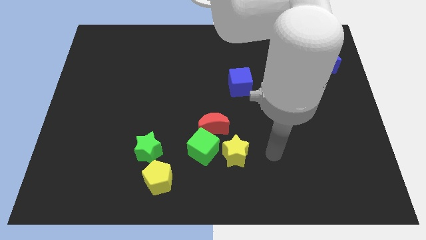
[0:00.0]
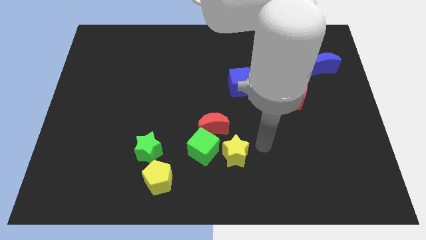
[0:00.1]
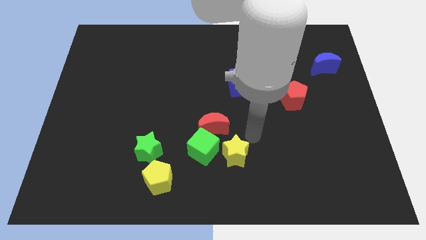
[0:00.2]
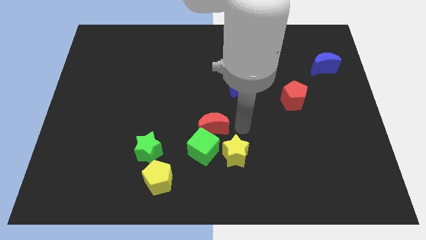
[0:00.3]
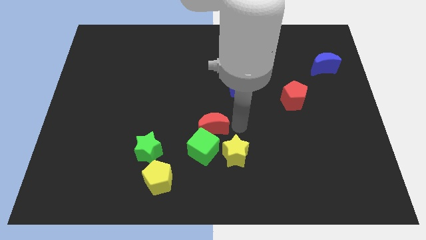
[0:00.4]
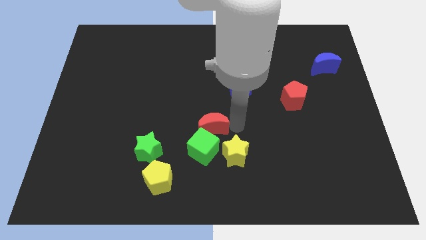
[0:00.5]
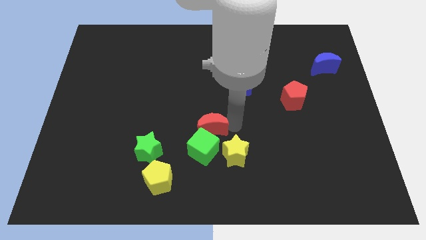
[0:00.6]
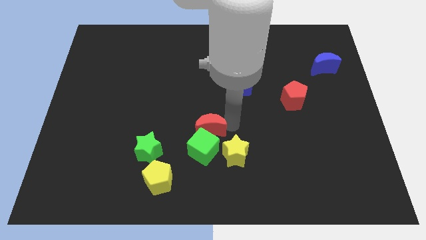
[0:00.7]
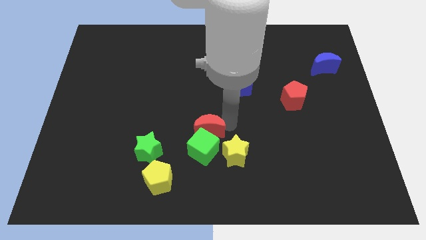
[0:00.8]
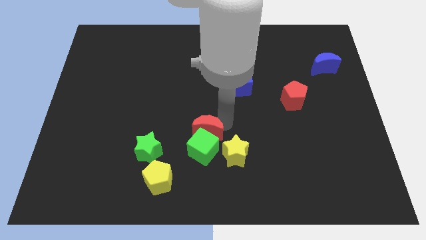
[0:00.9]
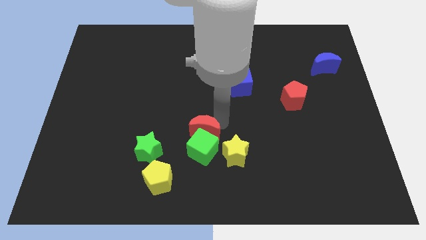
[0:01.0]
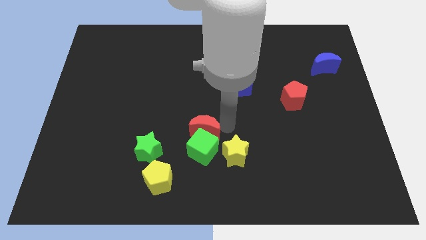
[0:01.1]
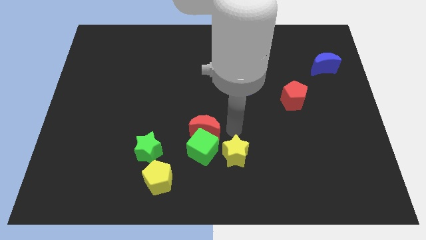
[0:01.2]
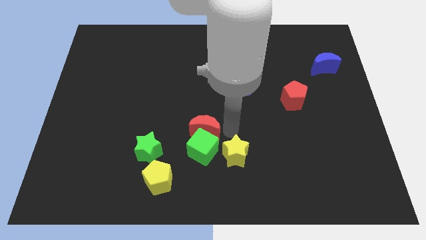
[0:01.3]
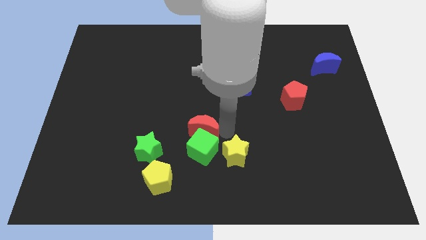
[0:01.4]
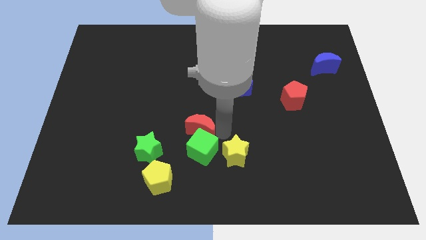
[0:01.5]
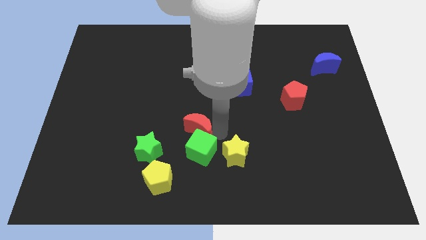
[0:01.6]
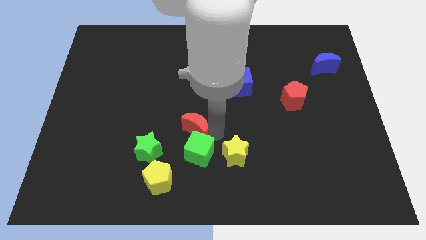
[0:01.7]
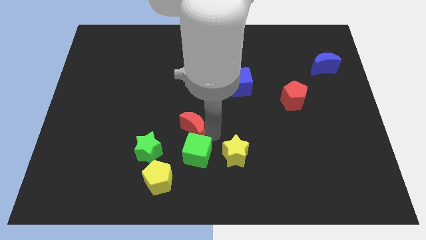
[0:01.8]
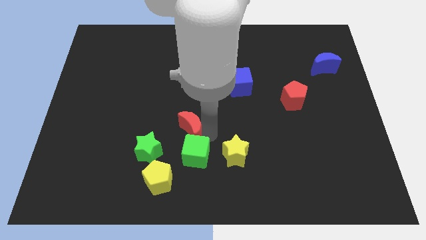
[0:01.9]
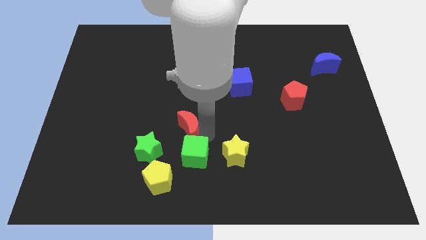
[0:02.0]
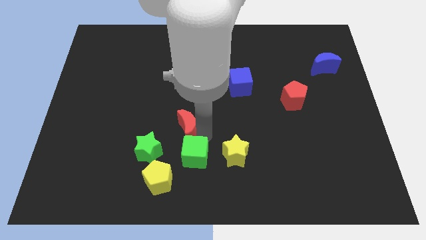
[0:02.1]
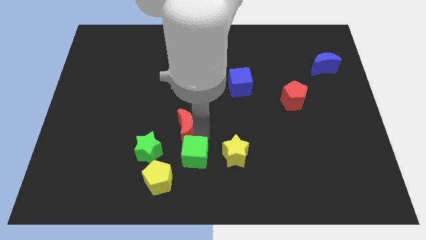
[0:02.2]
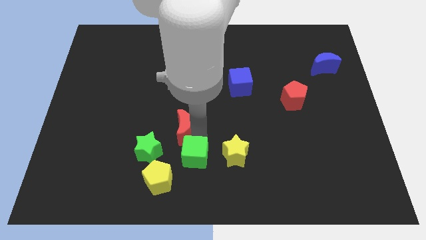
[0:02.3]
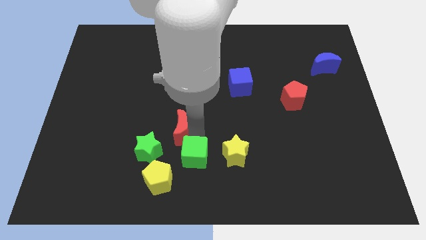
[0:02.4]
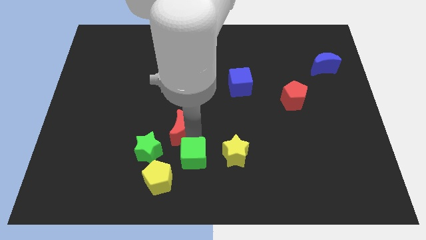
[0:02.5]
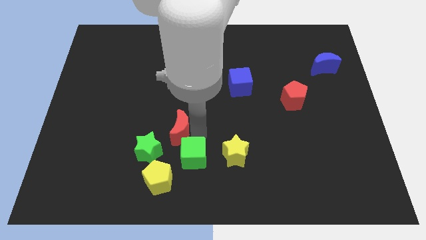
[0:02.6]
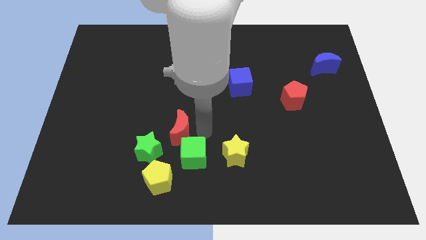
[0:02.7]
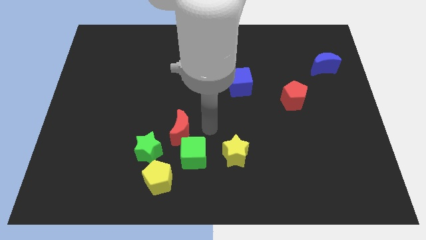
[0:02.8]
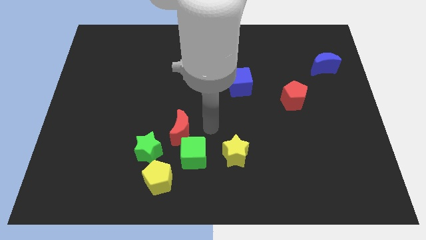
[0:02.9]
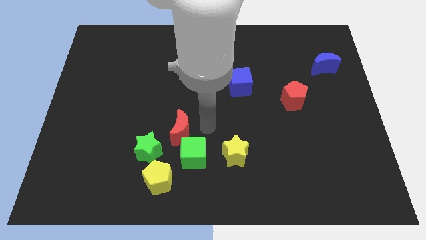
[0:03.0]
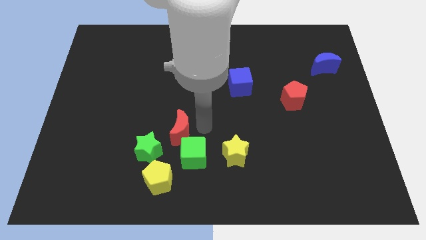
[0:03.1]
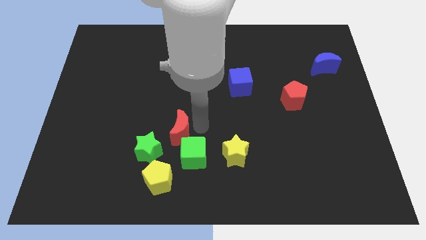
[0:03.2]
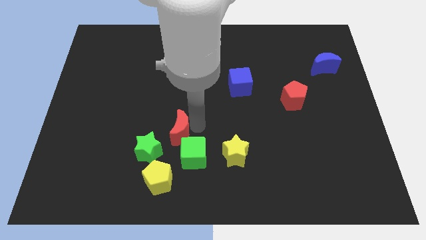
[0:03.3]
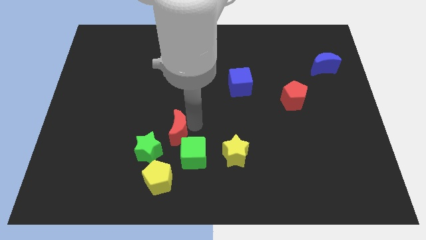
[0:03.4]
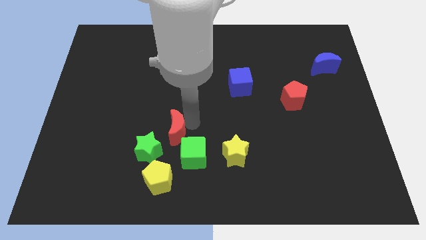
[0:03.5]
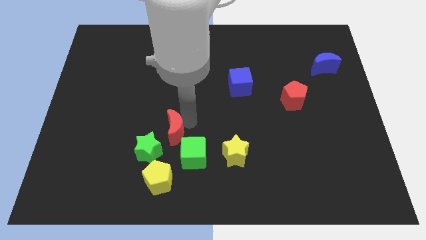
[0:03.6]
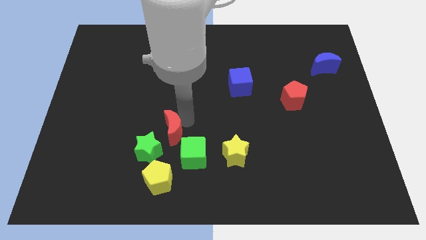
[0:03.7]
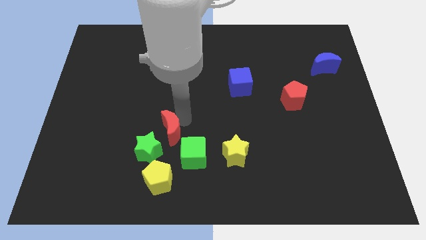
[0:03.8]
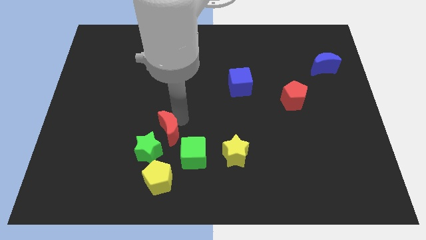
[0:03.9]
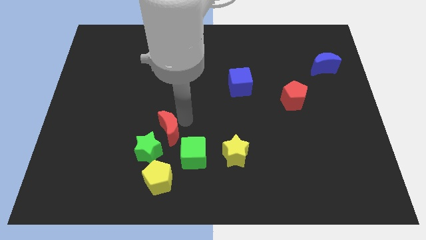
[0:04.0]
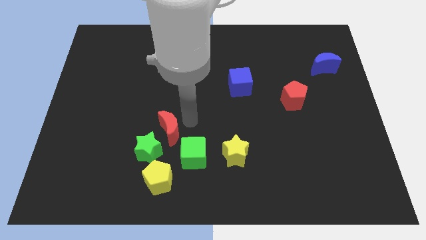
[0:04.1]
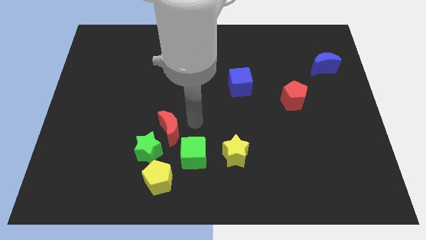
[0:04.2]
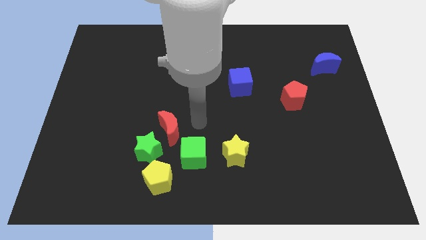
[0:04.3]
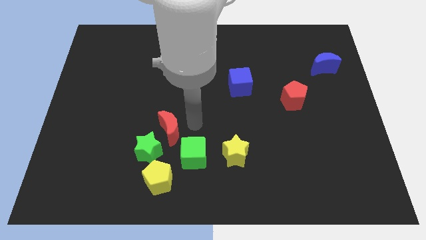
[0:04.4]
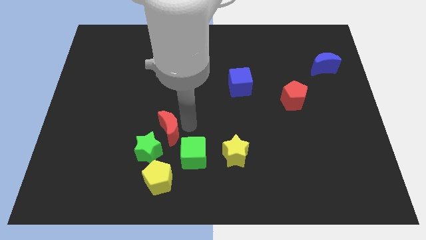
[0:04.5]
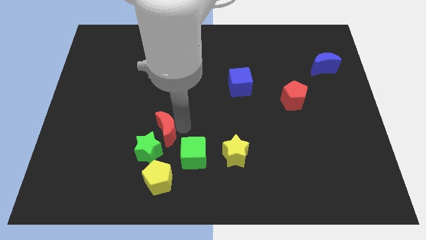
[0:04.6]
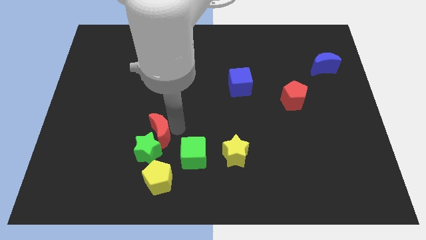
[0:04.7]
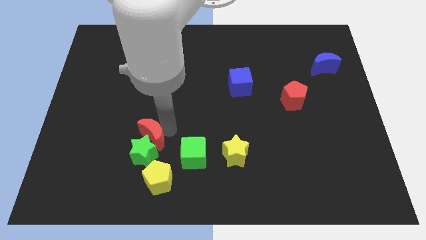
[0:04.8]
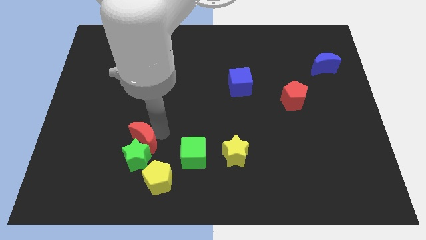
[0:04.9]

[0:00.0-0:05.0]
push the red moon to the top left side of the yellow pentagon

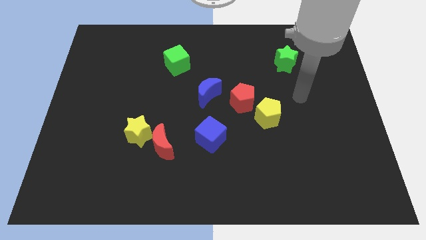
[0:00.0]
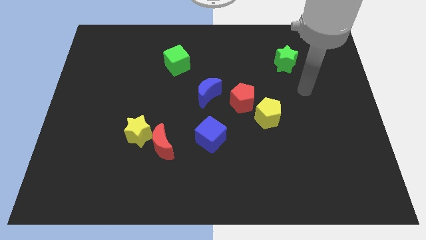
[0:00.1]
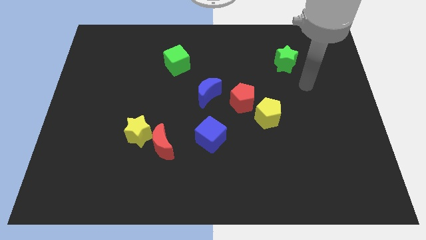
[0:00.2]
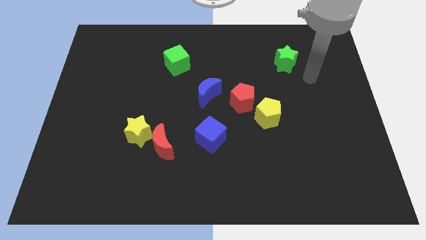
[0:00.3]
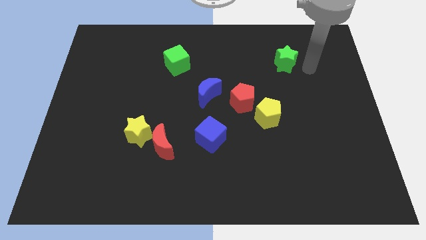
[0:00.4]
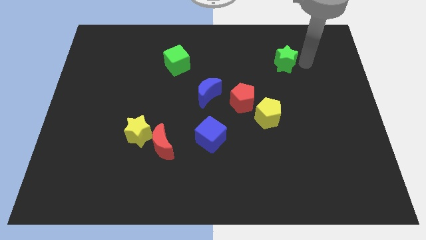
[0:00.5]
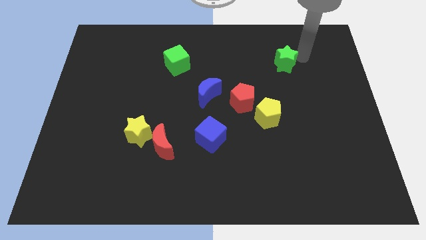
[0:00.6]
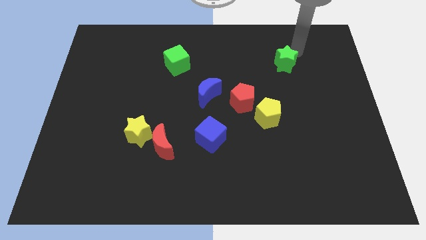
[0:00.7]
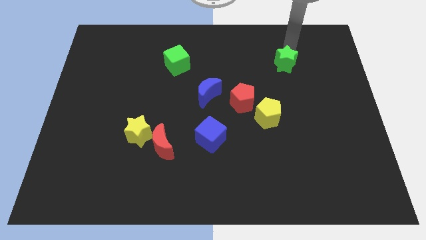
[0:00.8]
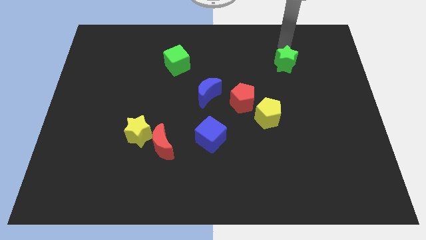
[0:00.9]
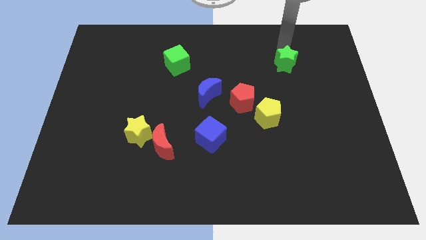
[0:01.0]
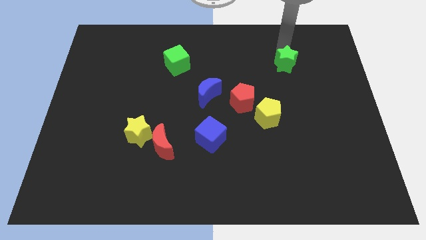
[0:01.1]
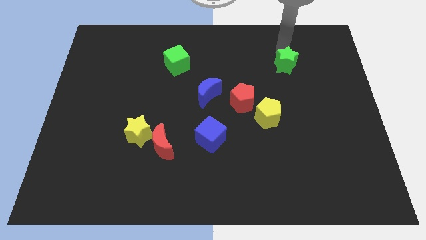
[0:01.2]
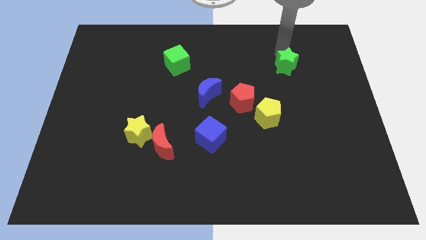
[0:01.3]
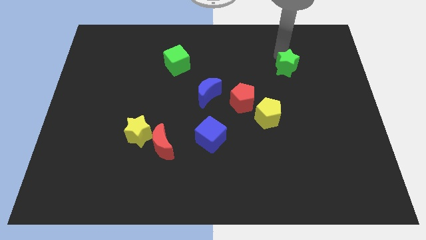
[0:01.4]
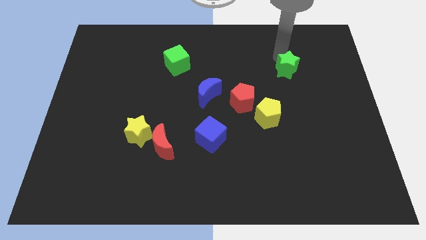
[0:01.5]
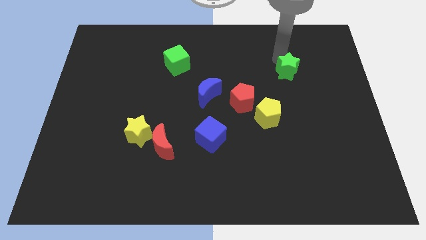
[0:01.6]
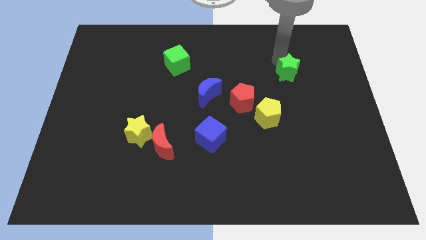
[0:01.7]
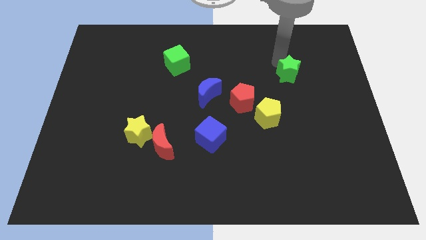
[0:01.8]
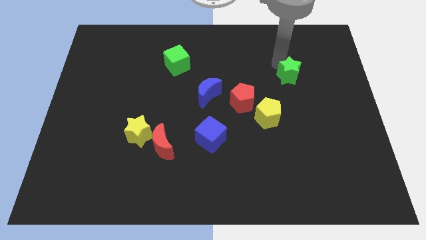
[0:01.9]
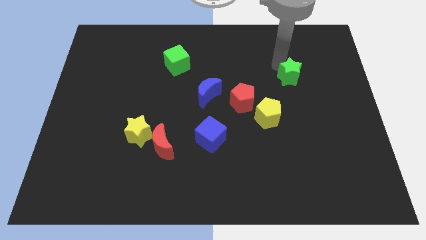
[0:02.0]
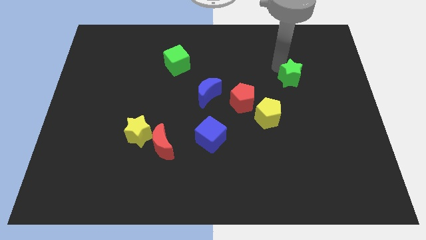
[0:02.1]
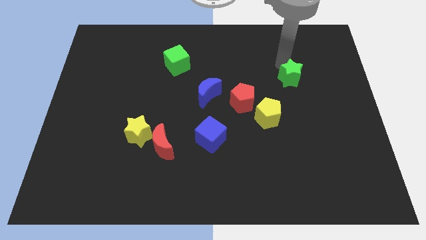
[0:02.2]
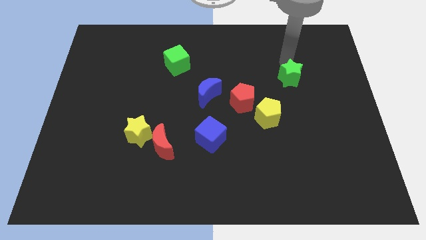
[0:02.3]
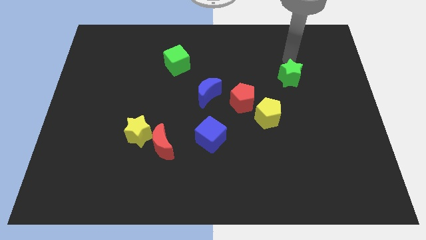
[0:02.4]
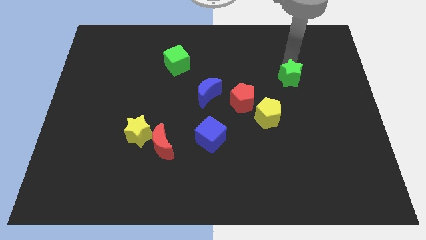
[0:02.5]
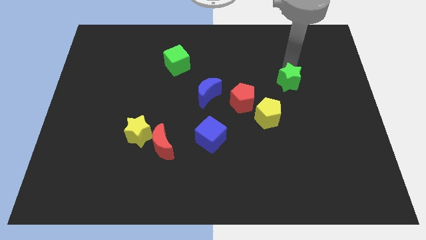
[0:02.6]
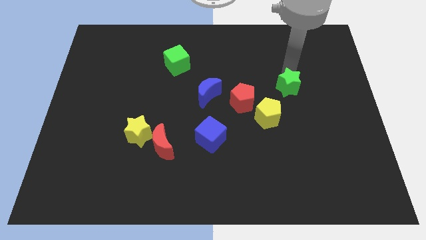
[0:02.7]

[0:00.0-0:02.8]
push the green star to the top right of the yellow pentagon
